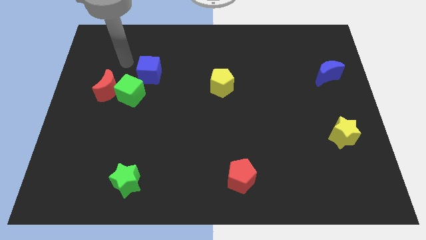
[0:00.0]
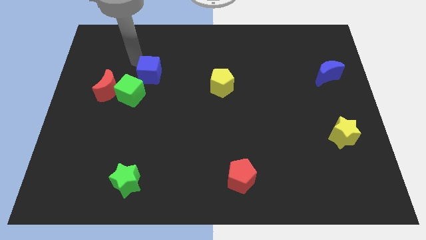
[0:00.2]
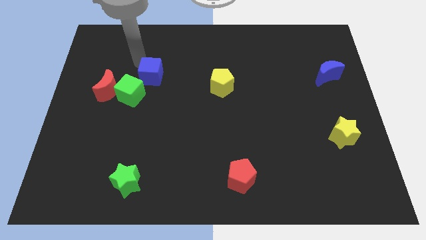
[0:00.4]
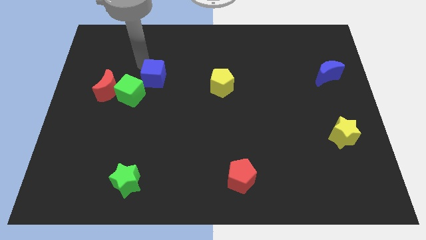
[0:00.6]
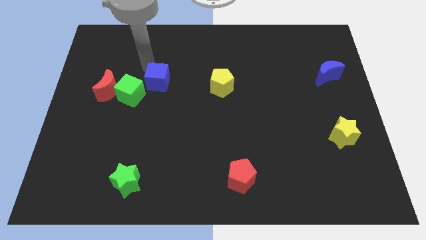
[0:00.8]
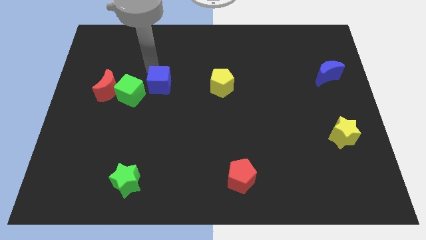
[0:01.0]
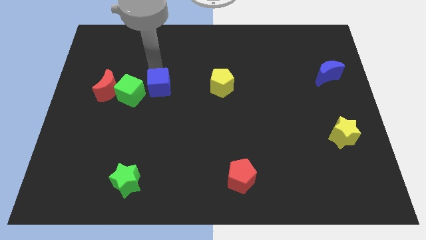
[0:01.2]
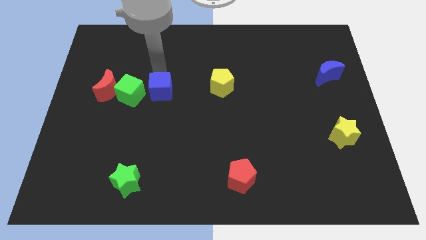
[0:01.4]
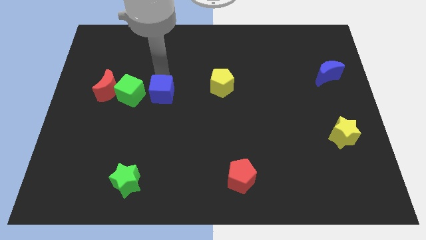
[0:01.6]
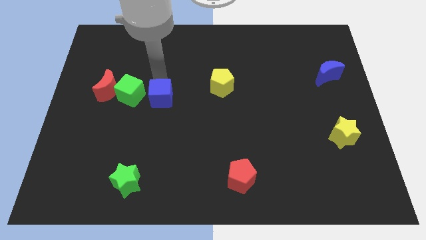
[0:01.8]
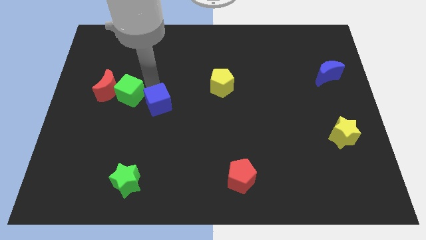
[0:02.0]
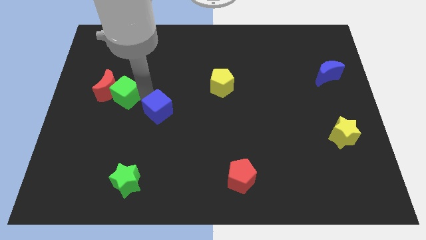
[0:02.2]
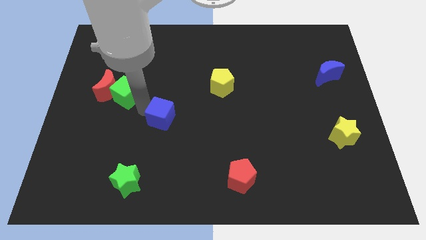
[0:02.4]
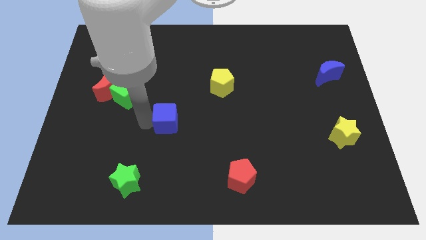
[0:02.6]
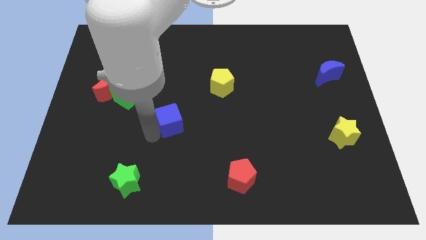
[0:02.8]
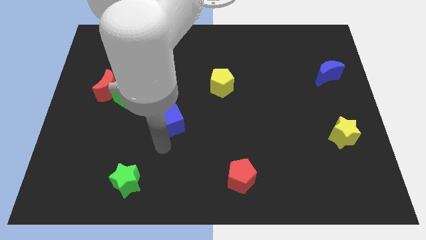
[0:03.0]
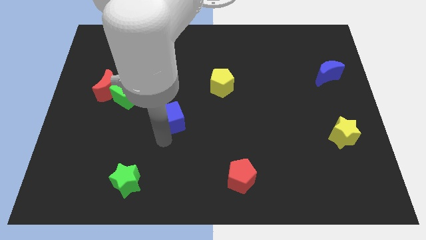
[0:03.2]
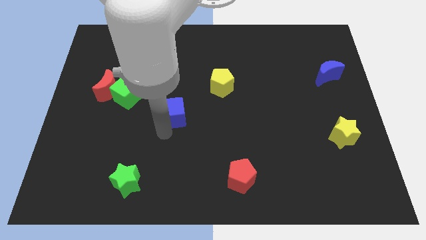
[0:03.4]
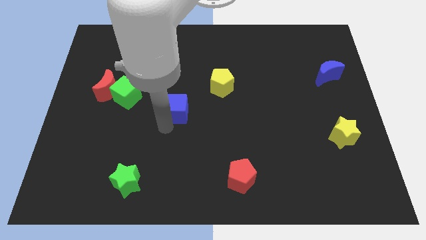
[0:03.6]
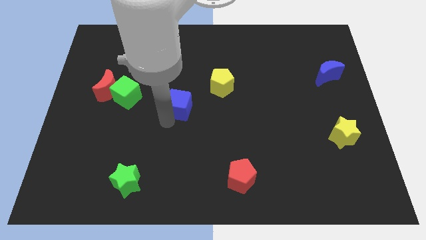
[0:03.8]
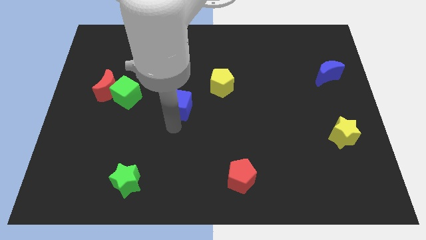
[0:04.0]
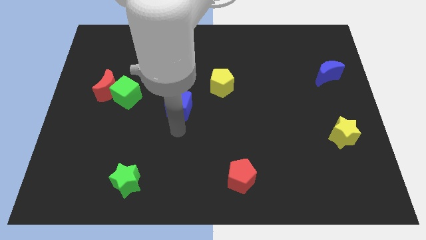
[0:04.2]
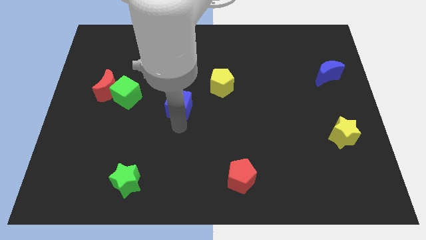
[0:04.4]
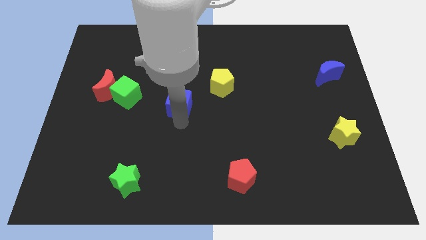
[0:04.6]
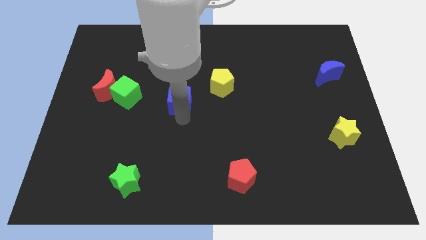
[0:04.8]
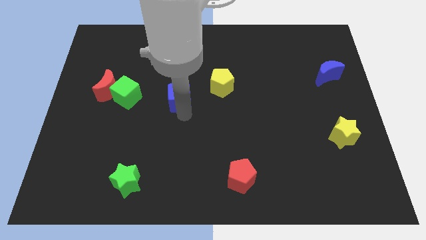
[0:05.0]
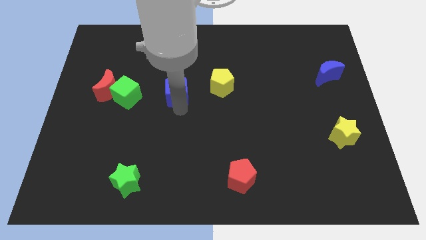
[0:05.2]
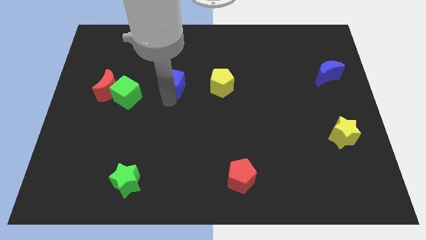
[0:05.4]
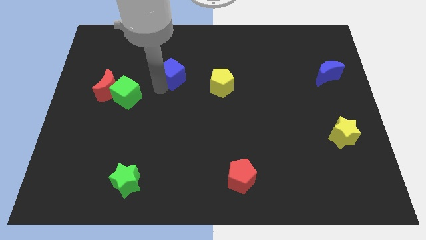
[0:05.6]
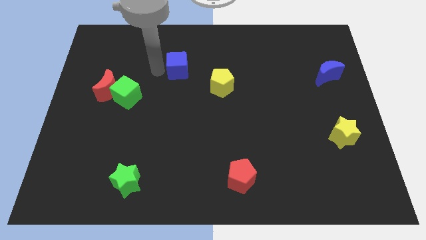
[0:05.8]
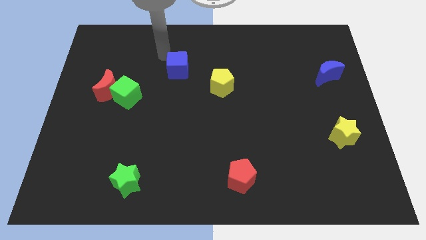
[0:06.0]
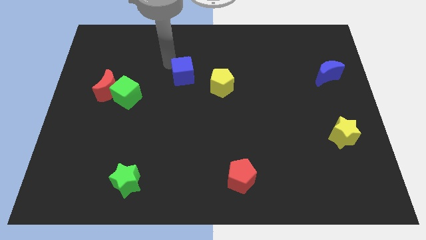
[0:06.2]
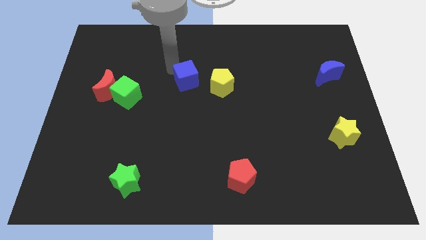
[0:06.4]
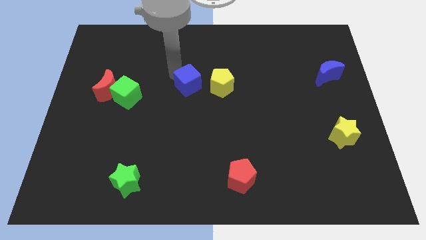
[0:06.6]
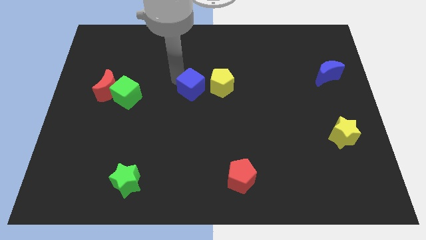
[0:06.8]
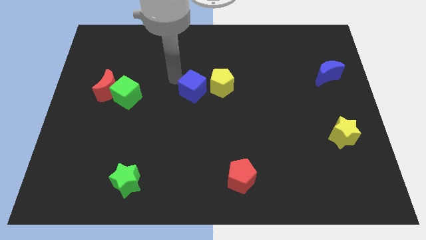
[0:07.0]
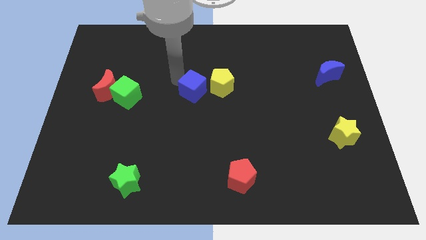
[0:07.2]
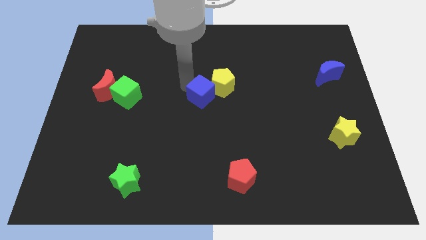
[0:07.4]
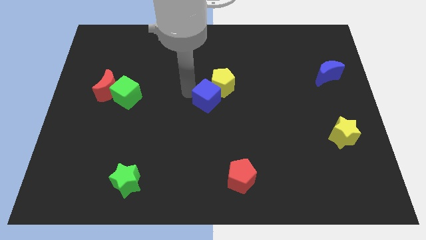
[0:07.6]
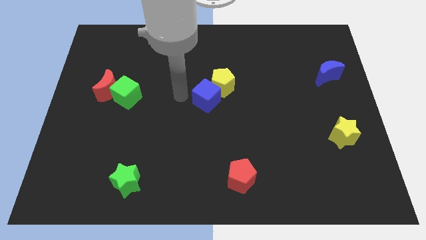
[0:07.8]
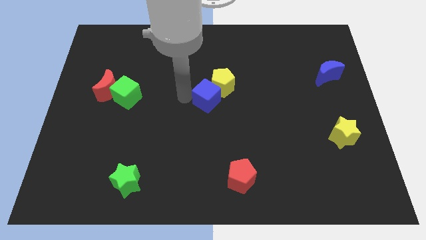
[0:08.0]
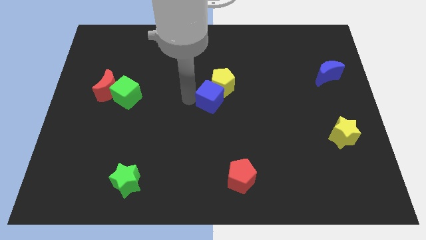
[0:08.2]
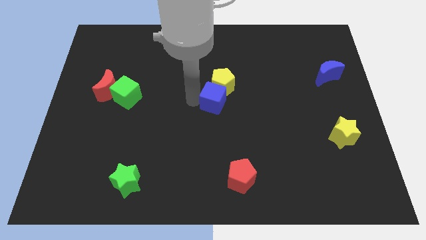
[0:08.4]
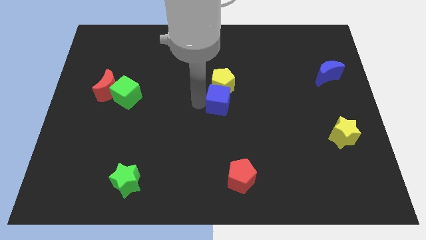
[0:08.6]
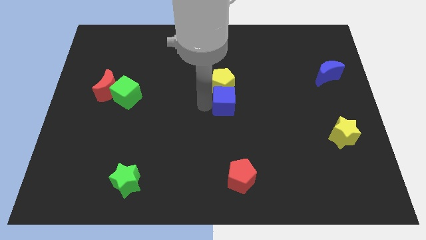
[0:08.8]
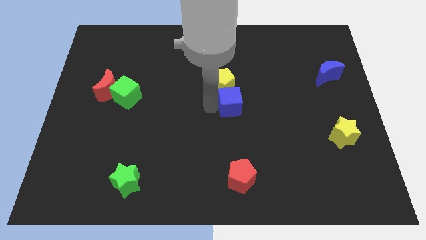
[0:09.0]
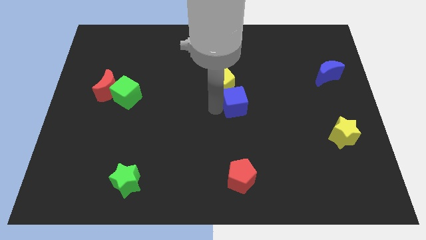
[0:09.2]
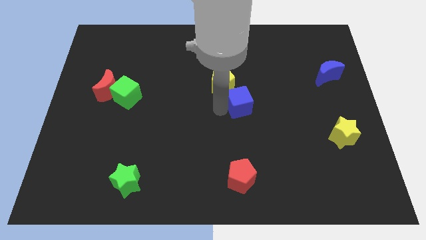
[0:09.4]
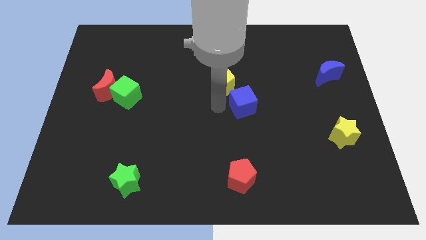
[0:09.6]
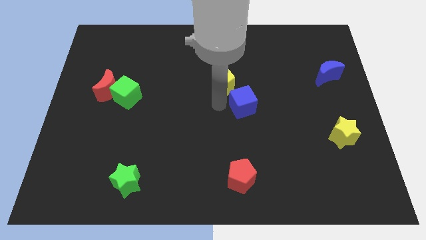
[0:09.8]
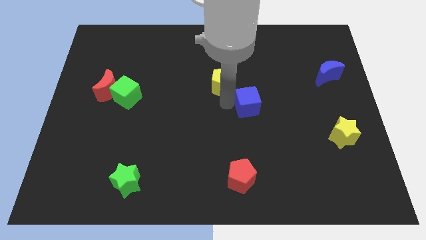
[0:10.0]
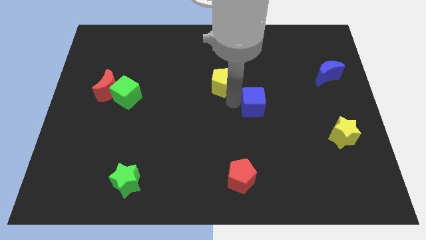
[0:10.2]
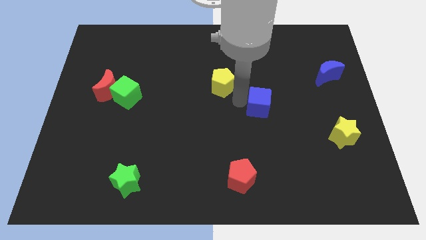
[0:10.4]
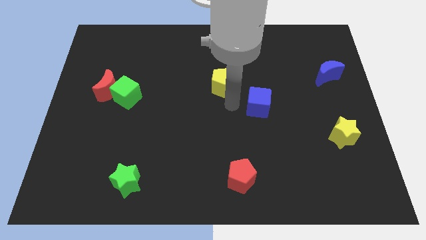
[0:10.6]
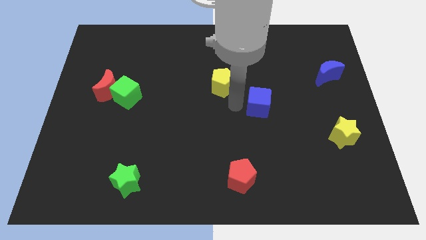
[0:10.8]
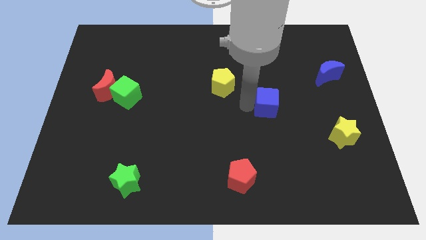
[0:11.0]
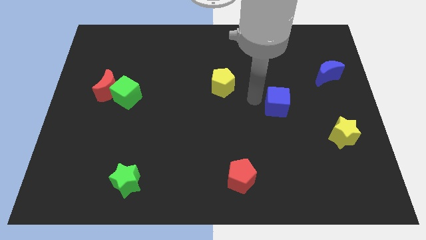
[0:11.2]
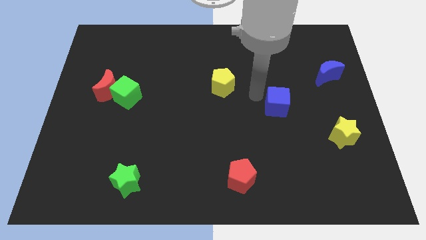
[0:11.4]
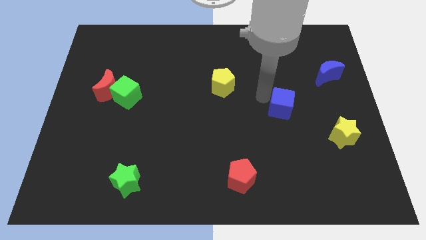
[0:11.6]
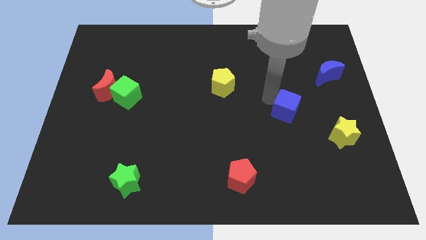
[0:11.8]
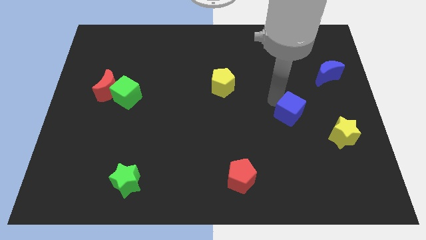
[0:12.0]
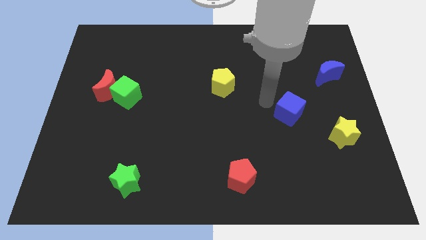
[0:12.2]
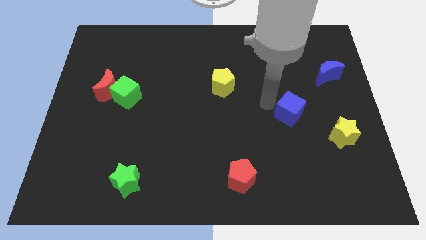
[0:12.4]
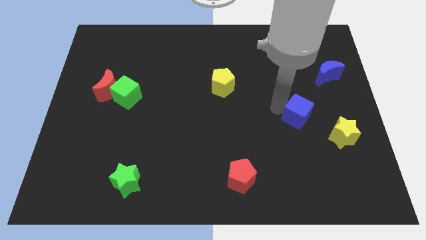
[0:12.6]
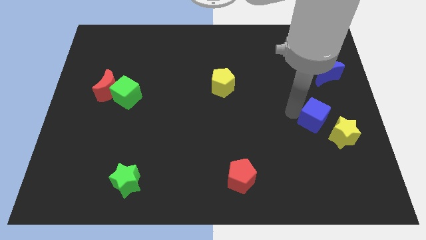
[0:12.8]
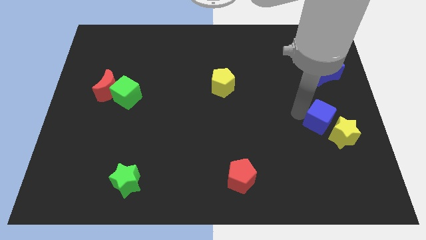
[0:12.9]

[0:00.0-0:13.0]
push the blue cube next to the yellow star
